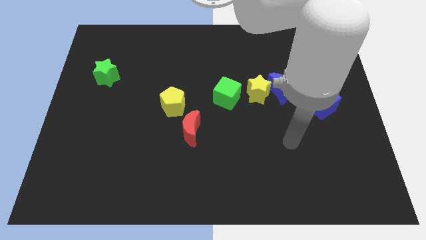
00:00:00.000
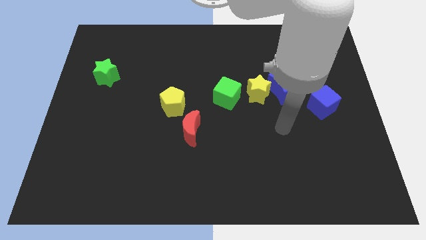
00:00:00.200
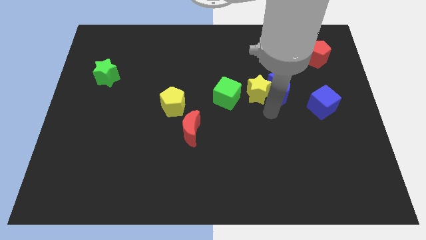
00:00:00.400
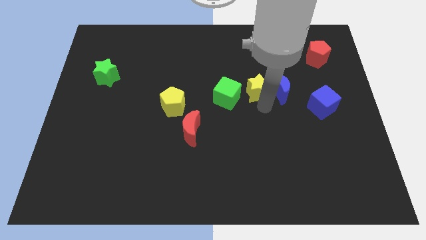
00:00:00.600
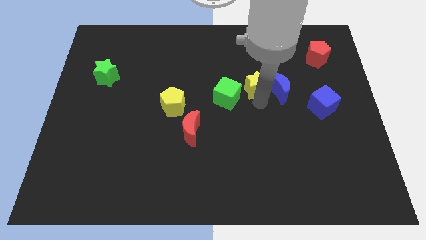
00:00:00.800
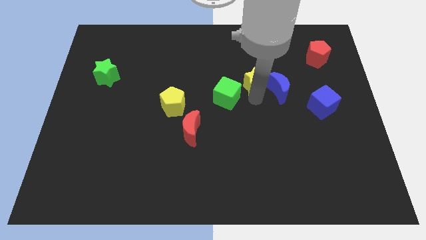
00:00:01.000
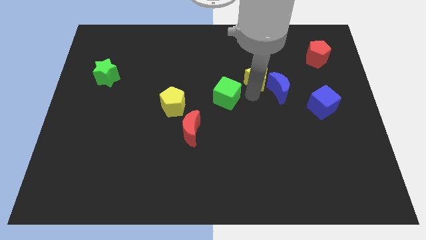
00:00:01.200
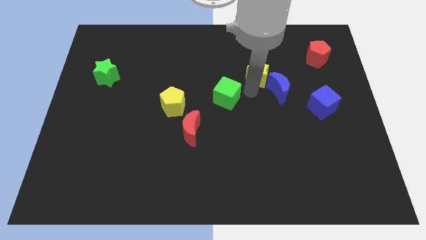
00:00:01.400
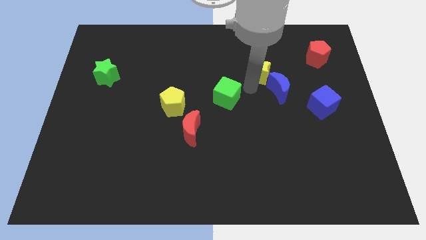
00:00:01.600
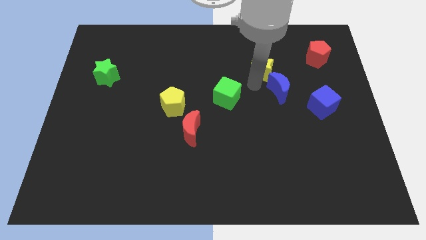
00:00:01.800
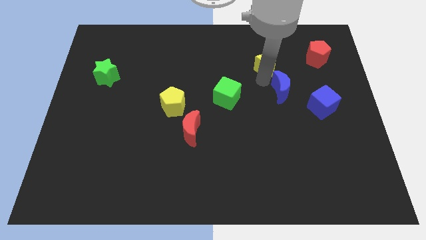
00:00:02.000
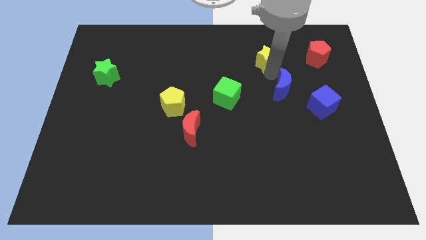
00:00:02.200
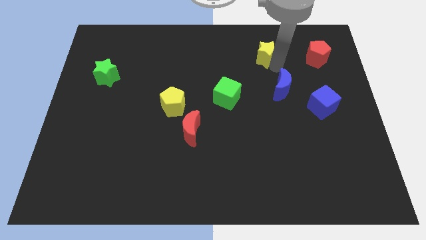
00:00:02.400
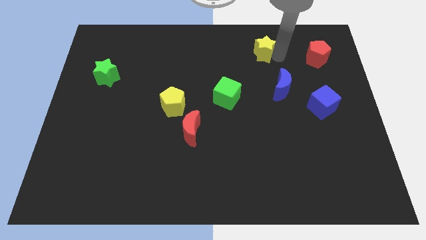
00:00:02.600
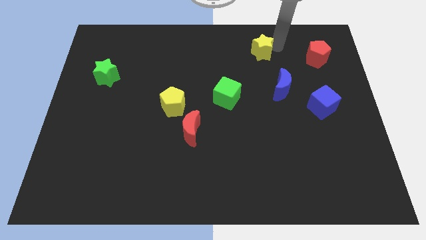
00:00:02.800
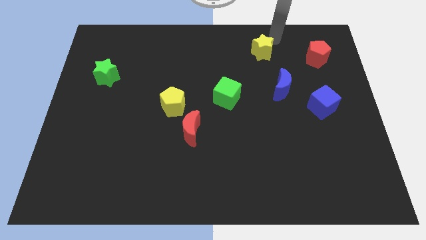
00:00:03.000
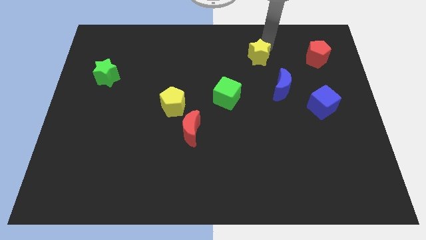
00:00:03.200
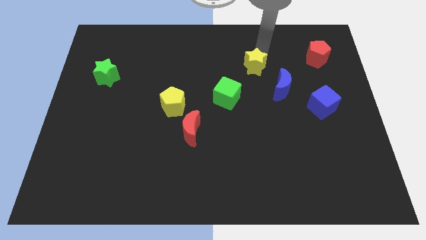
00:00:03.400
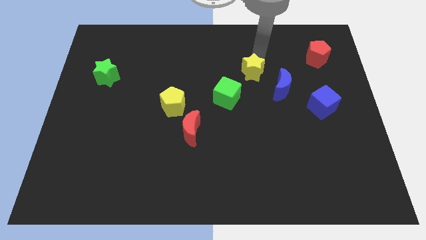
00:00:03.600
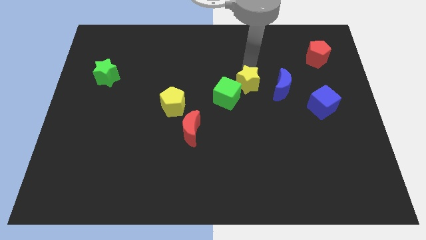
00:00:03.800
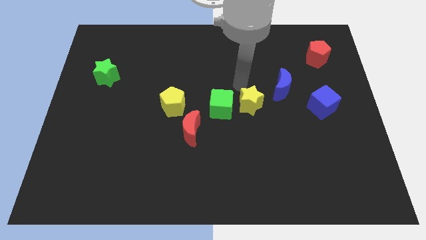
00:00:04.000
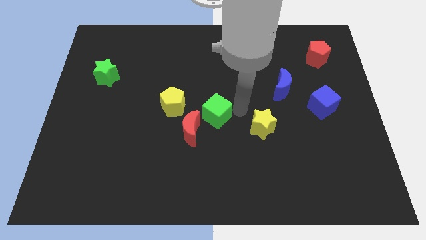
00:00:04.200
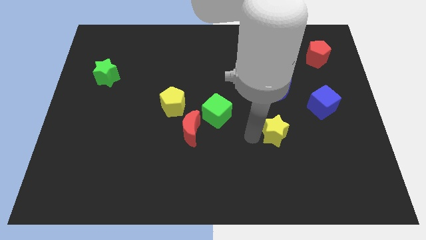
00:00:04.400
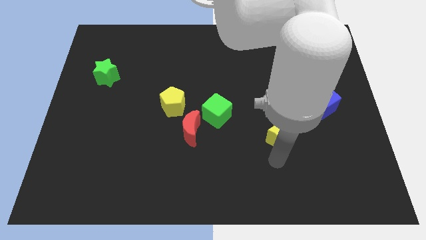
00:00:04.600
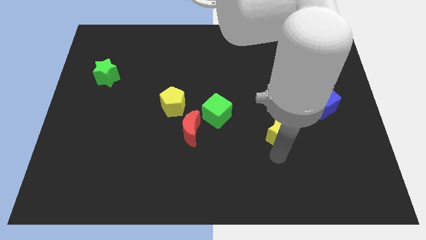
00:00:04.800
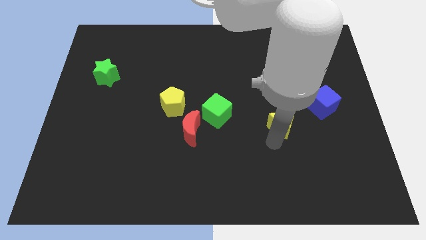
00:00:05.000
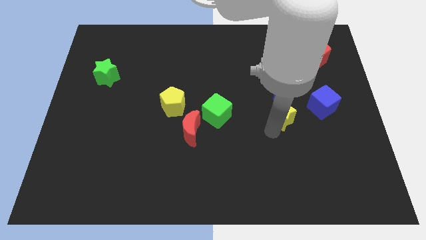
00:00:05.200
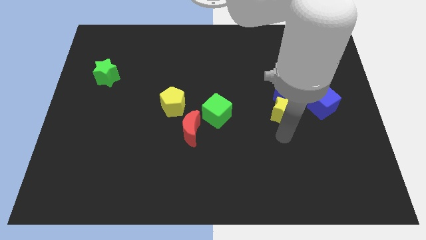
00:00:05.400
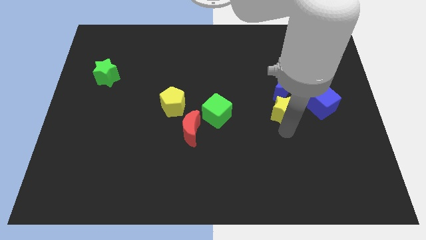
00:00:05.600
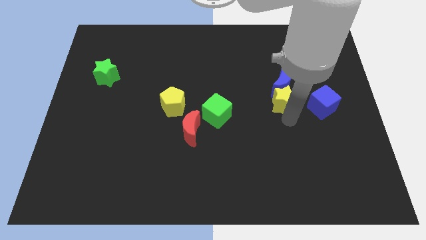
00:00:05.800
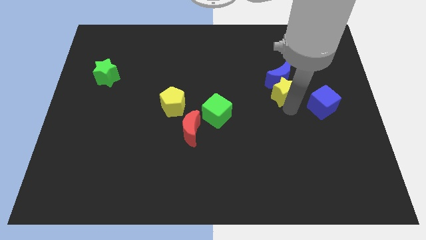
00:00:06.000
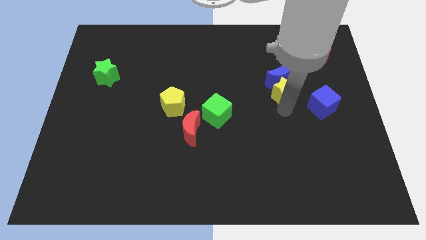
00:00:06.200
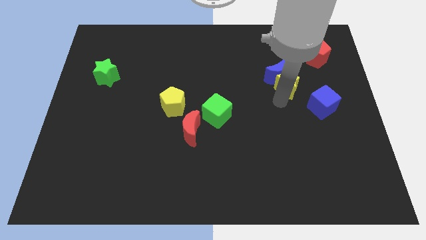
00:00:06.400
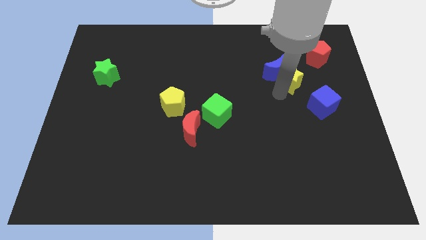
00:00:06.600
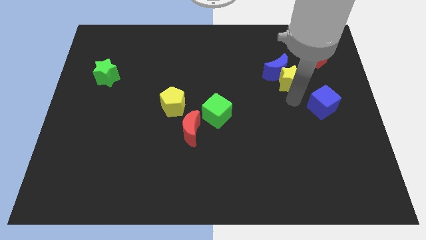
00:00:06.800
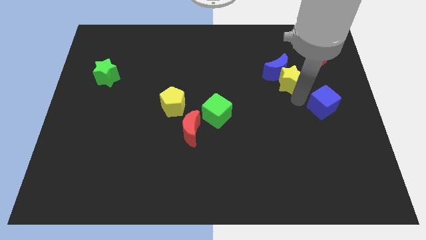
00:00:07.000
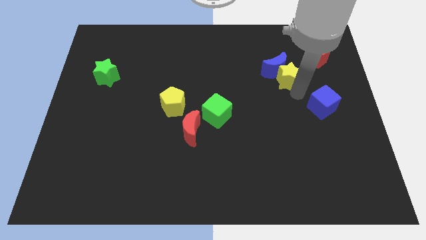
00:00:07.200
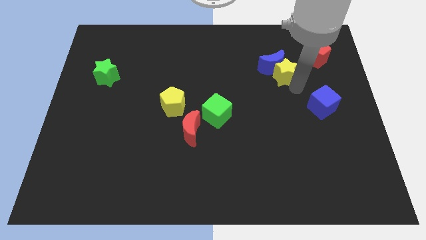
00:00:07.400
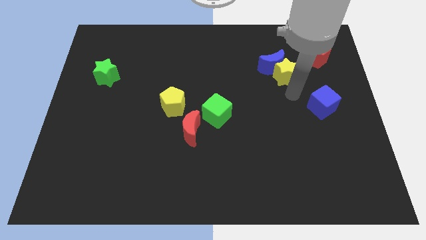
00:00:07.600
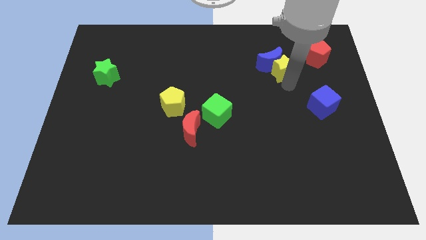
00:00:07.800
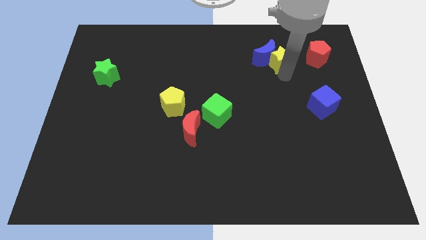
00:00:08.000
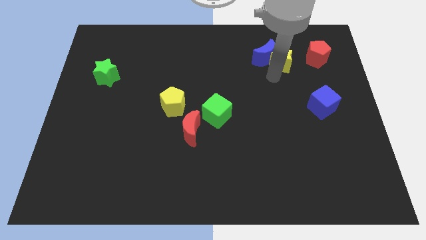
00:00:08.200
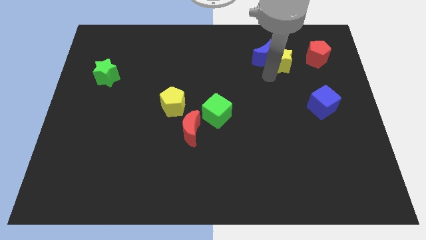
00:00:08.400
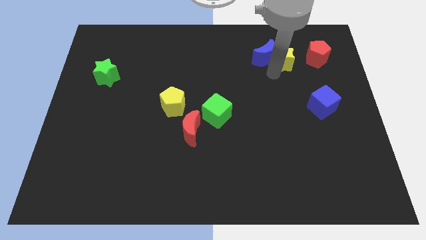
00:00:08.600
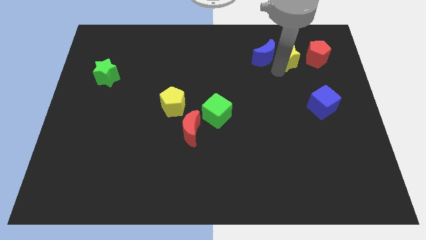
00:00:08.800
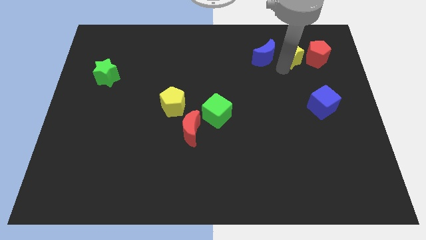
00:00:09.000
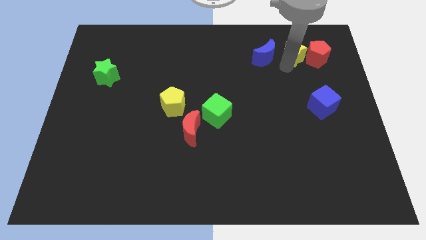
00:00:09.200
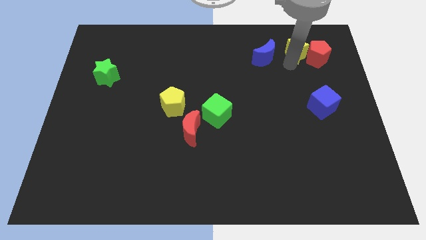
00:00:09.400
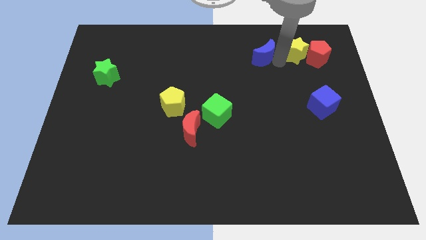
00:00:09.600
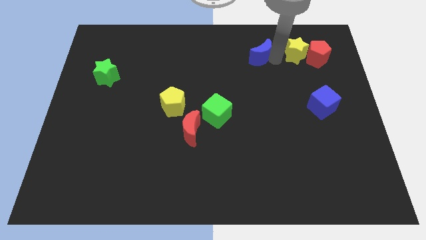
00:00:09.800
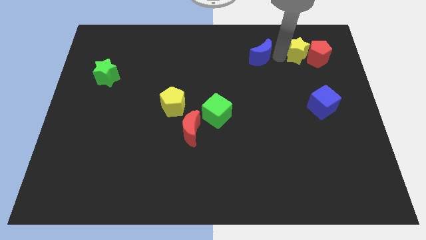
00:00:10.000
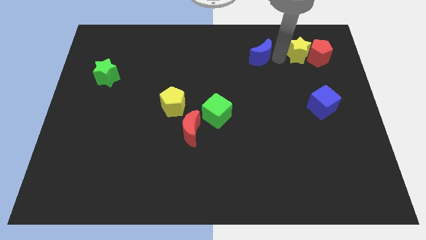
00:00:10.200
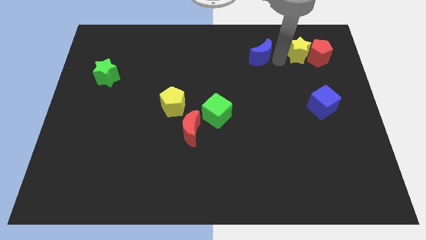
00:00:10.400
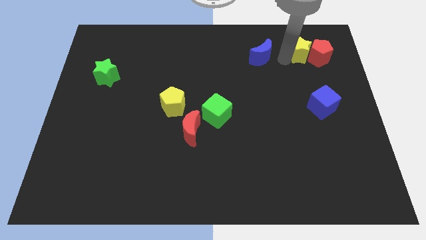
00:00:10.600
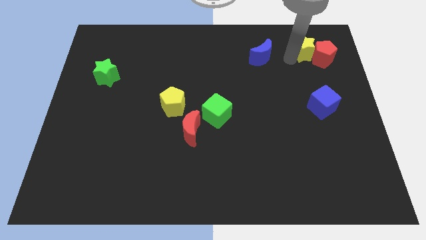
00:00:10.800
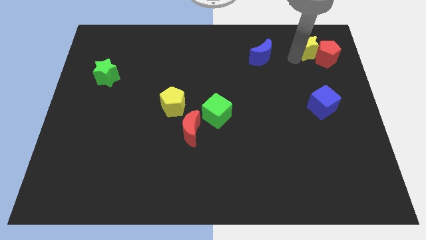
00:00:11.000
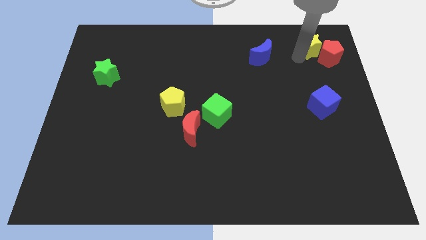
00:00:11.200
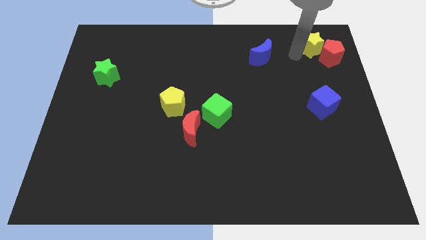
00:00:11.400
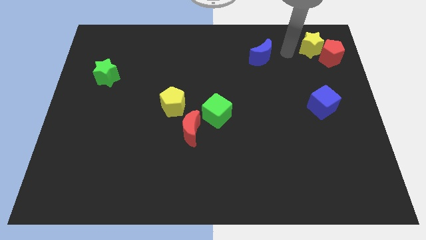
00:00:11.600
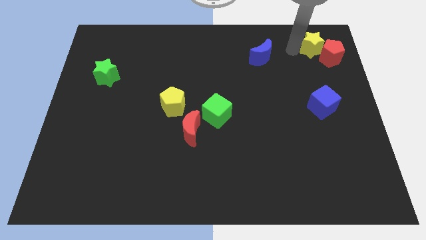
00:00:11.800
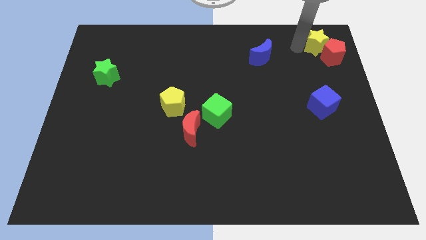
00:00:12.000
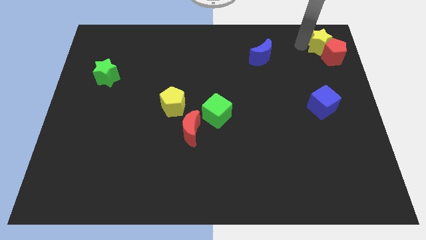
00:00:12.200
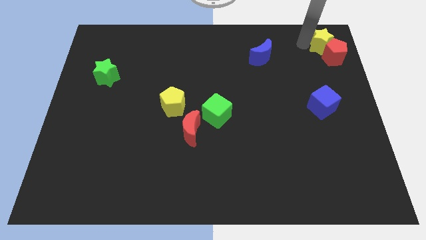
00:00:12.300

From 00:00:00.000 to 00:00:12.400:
move the yellow star to the top right of the board
